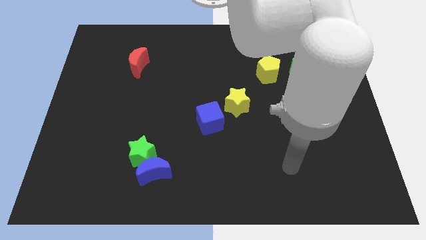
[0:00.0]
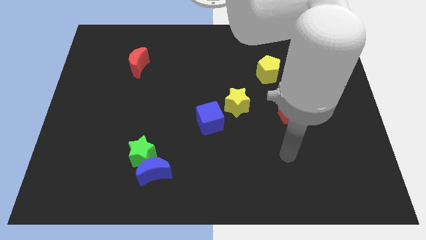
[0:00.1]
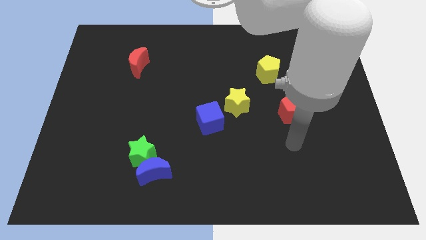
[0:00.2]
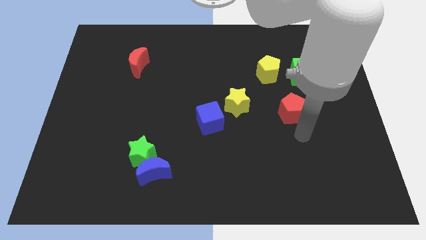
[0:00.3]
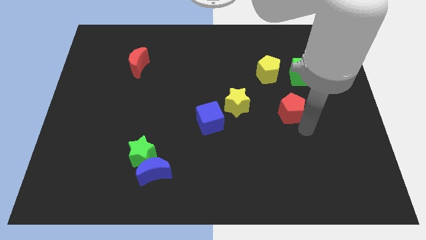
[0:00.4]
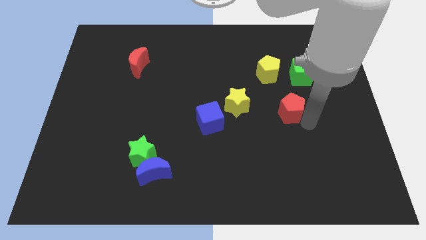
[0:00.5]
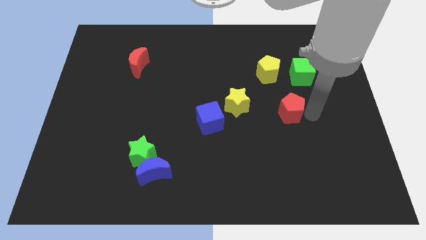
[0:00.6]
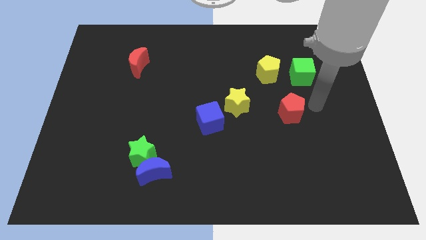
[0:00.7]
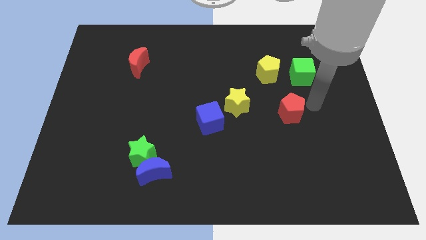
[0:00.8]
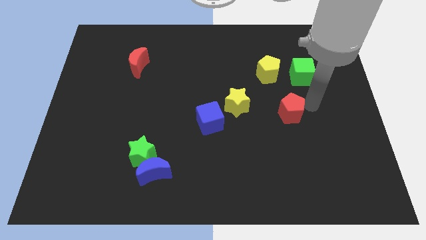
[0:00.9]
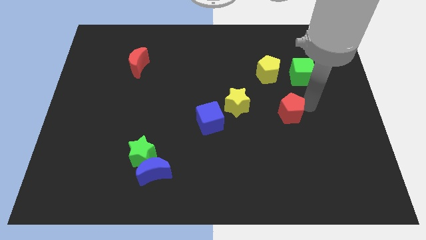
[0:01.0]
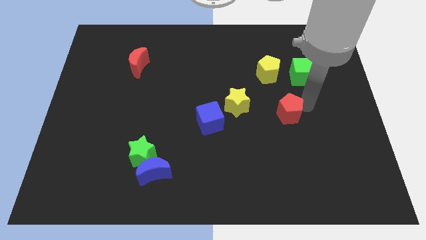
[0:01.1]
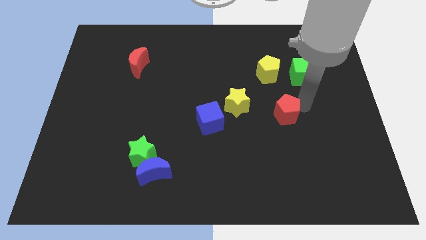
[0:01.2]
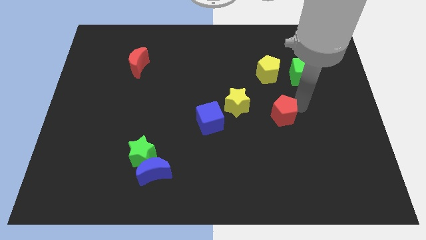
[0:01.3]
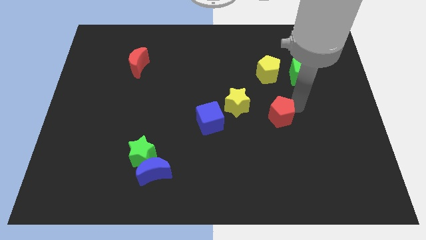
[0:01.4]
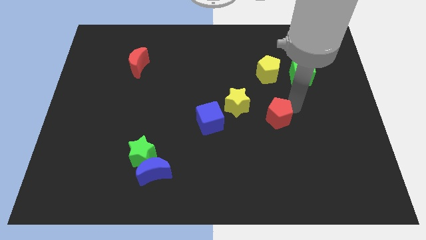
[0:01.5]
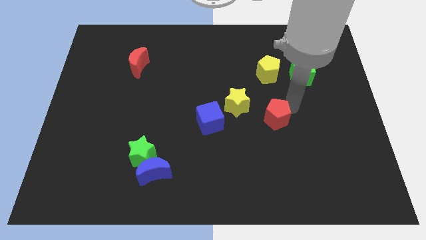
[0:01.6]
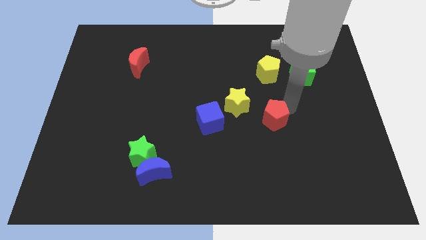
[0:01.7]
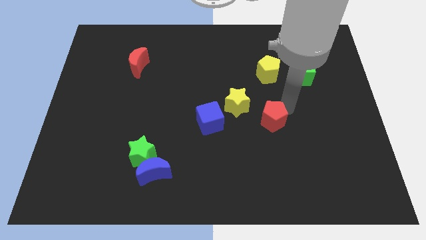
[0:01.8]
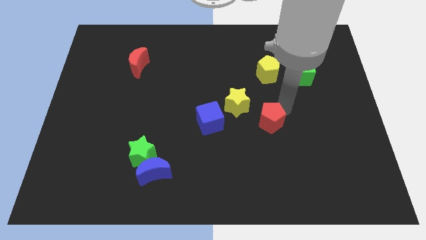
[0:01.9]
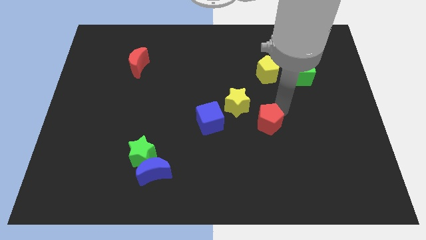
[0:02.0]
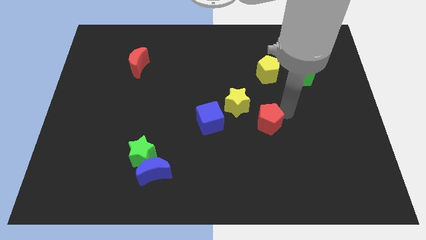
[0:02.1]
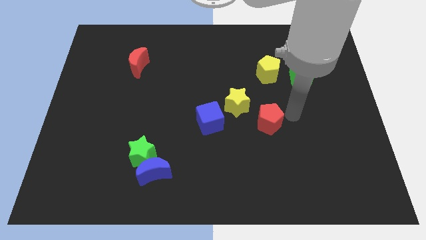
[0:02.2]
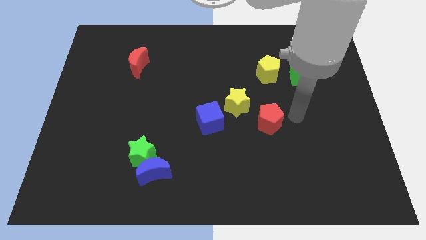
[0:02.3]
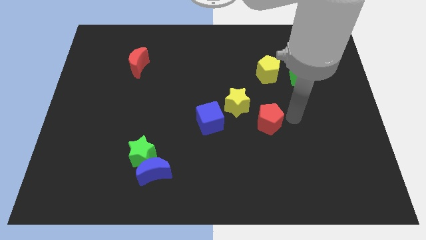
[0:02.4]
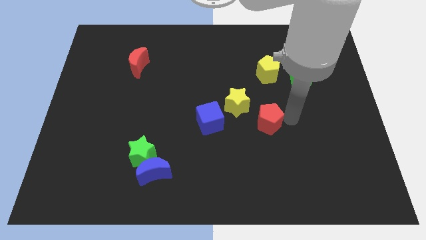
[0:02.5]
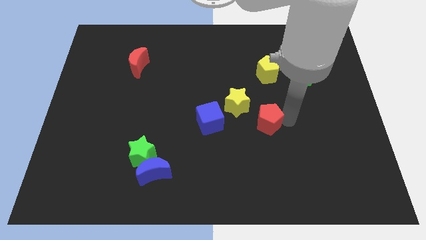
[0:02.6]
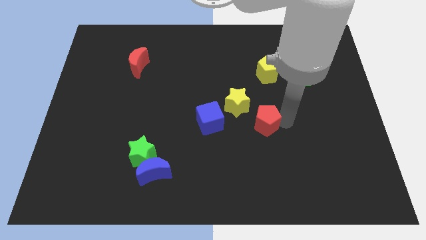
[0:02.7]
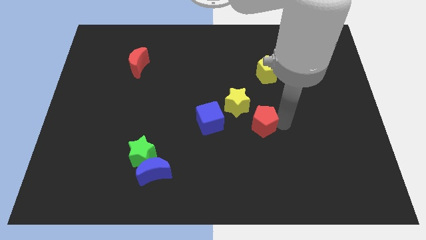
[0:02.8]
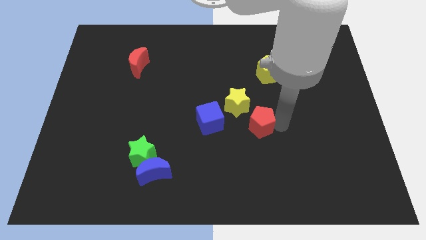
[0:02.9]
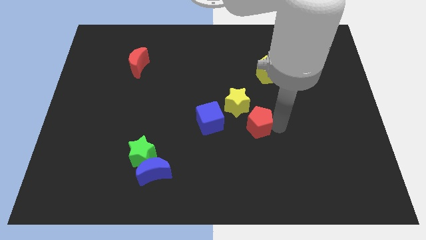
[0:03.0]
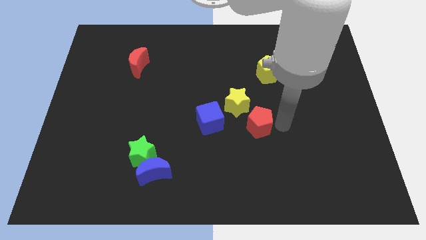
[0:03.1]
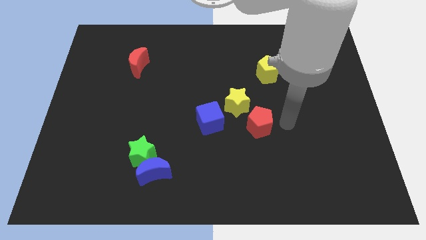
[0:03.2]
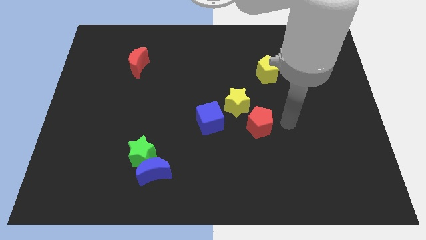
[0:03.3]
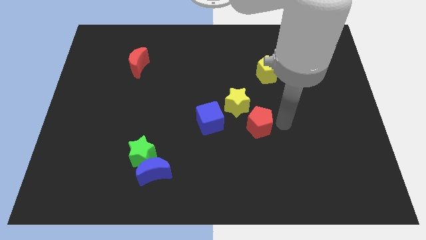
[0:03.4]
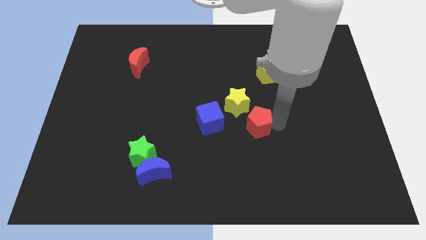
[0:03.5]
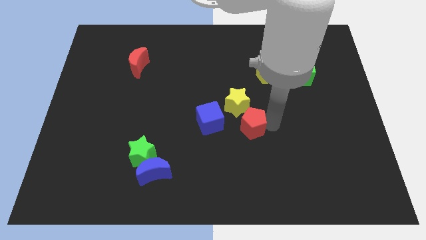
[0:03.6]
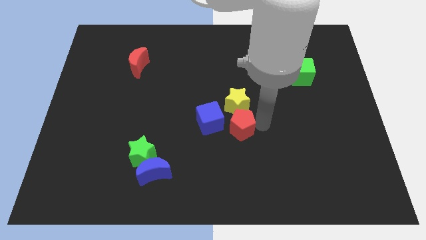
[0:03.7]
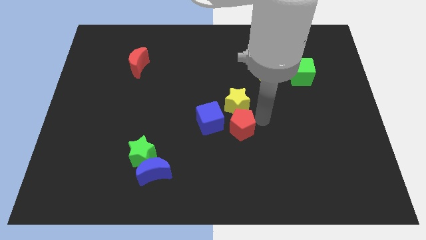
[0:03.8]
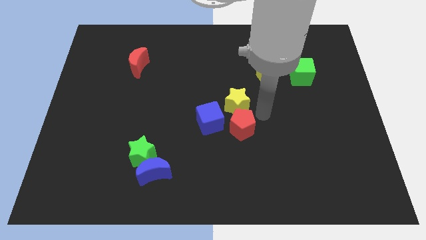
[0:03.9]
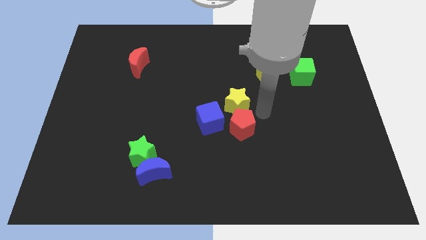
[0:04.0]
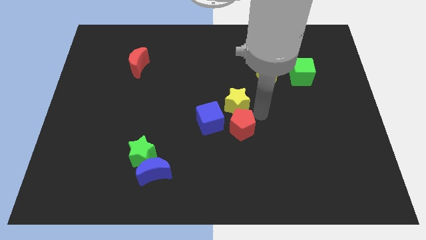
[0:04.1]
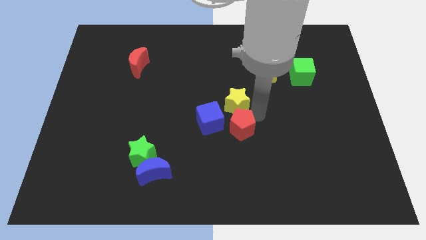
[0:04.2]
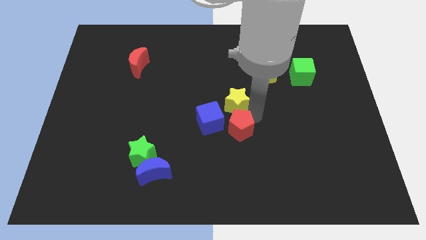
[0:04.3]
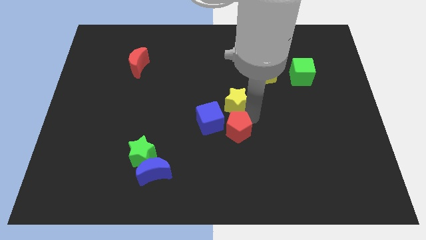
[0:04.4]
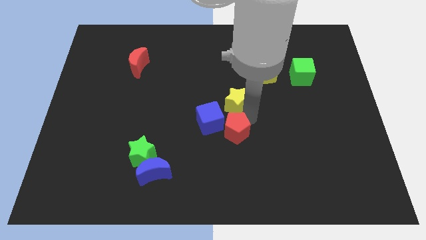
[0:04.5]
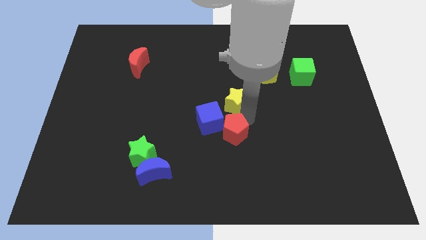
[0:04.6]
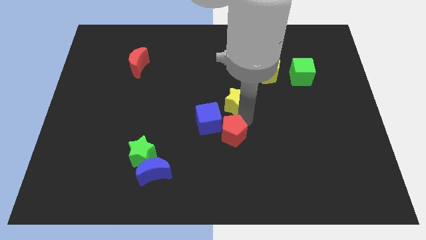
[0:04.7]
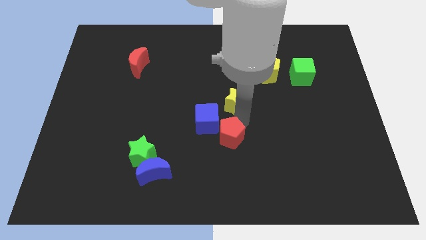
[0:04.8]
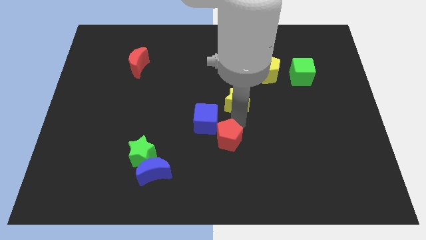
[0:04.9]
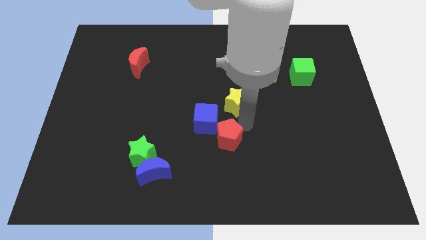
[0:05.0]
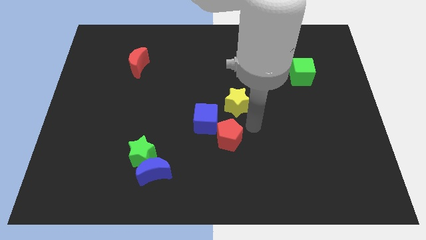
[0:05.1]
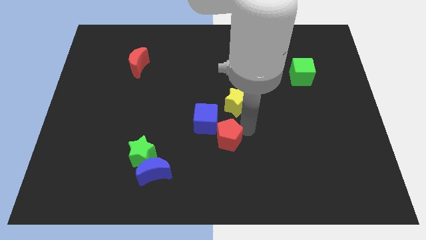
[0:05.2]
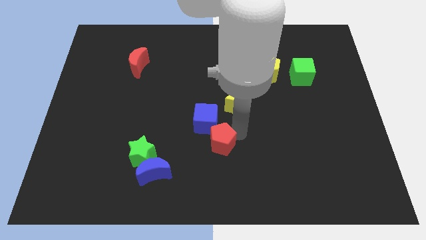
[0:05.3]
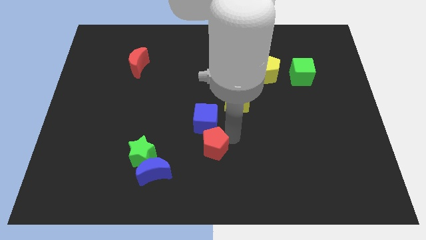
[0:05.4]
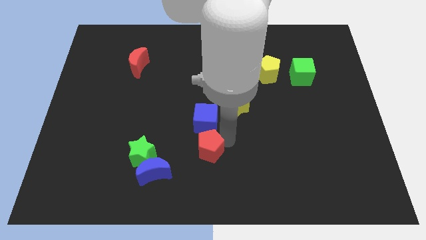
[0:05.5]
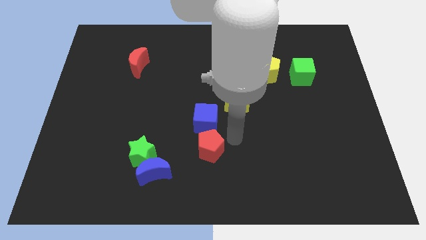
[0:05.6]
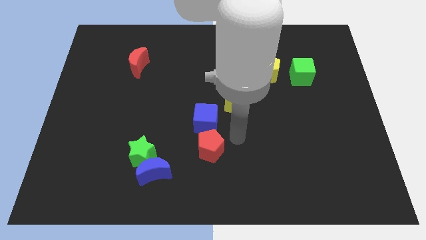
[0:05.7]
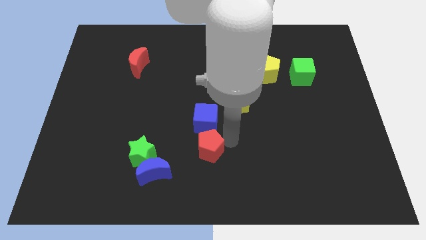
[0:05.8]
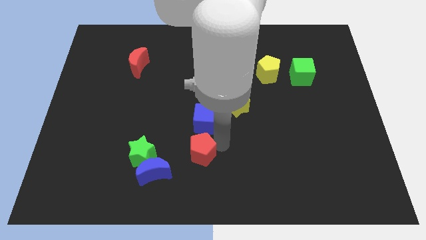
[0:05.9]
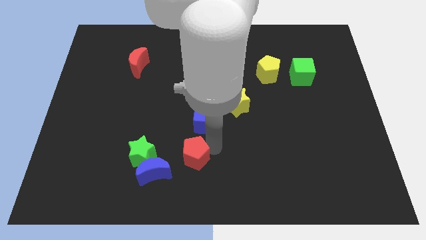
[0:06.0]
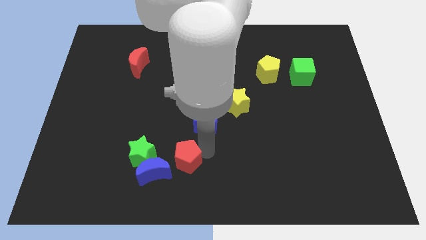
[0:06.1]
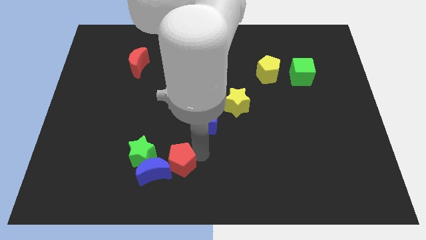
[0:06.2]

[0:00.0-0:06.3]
put the red pentagon towards the blue moon

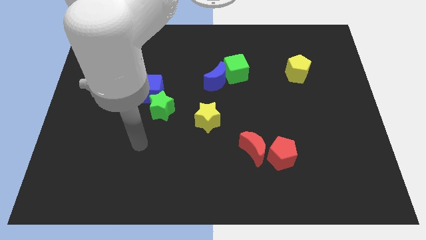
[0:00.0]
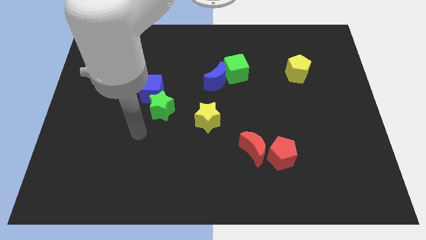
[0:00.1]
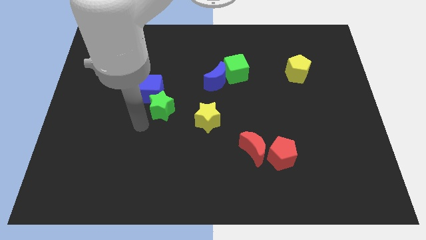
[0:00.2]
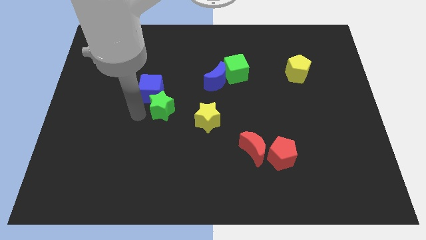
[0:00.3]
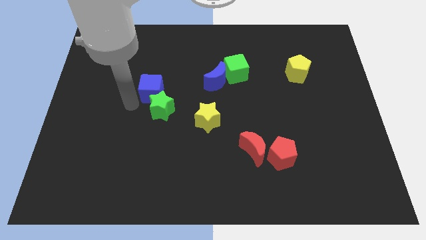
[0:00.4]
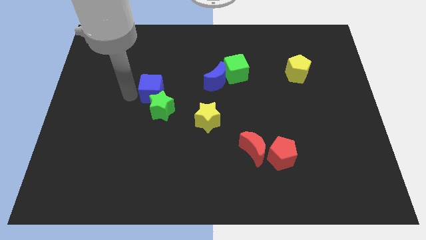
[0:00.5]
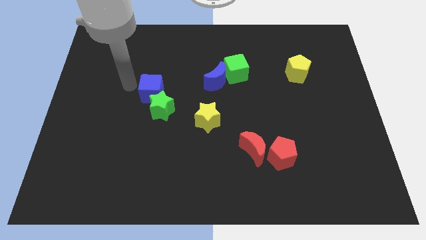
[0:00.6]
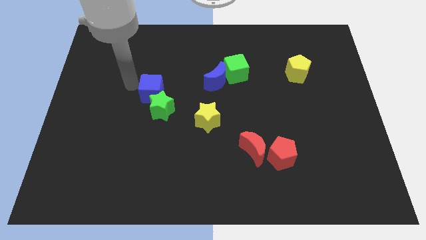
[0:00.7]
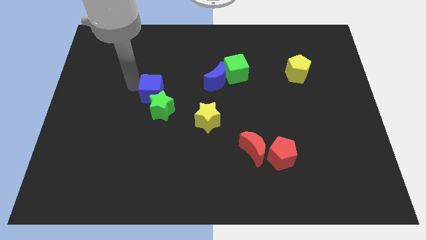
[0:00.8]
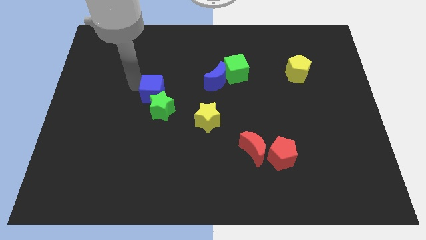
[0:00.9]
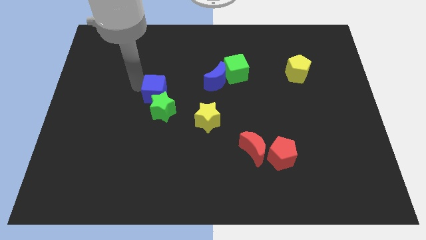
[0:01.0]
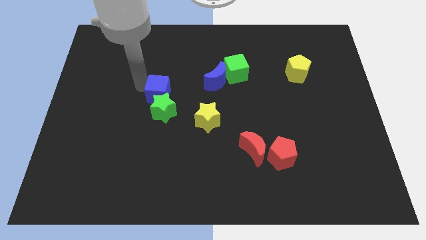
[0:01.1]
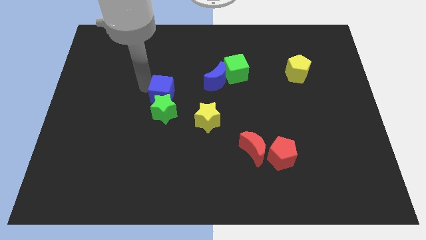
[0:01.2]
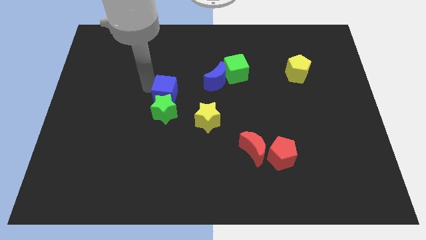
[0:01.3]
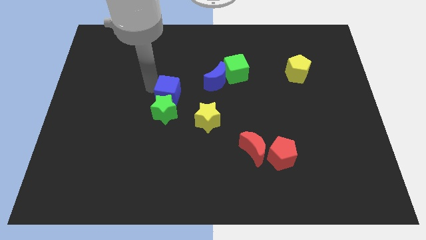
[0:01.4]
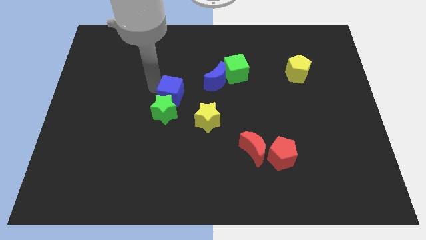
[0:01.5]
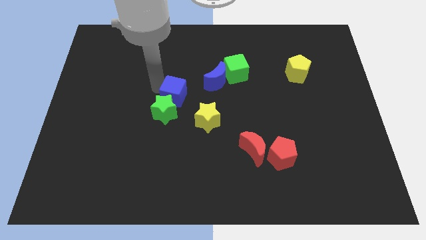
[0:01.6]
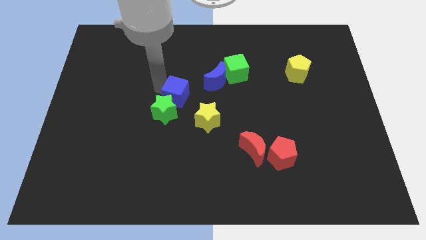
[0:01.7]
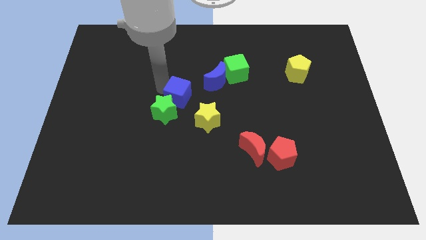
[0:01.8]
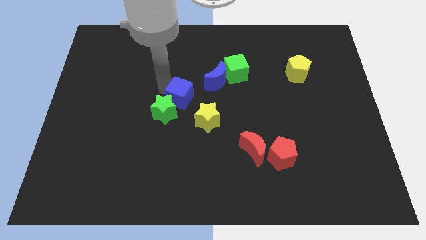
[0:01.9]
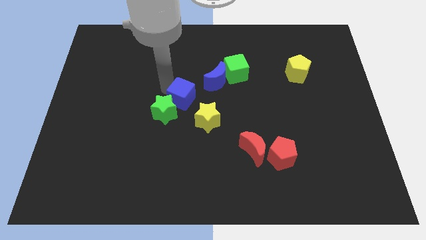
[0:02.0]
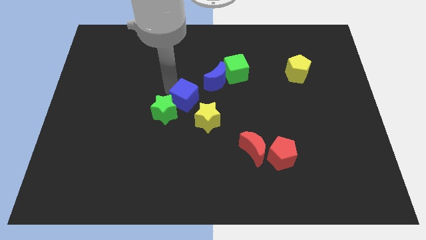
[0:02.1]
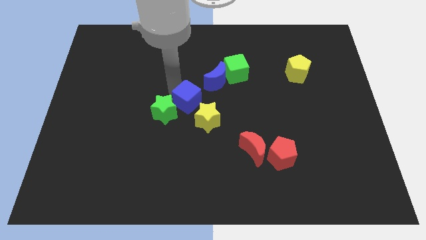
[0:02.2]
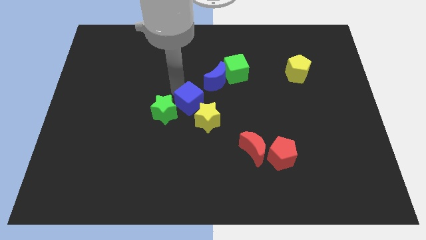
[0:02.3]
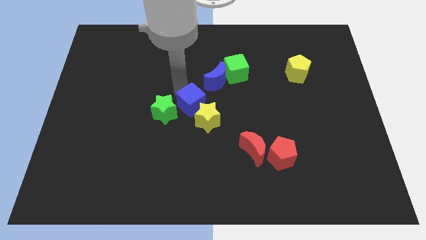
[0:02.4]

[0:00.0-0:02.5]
slide the blue cube next to the yellow star
